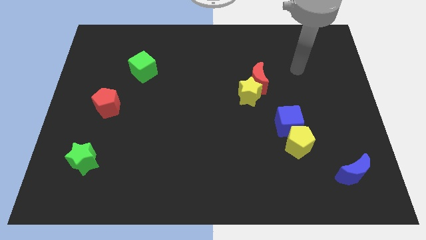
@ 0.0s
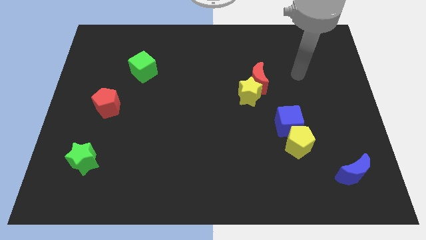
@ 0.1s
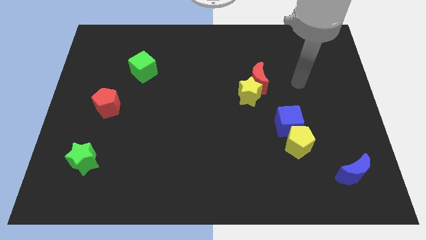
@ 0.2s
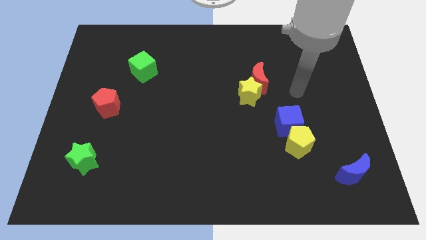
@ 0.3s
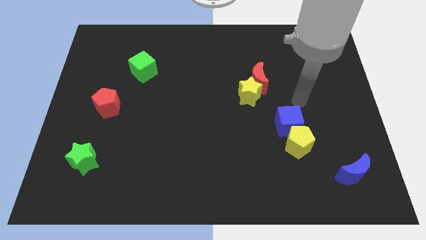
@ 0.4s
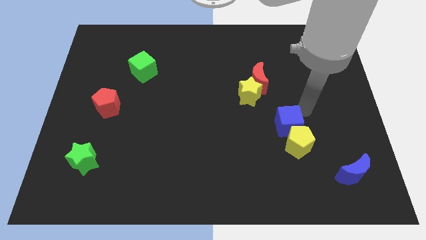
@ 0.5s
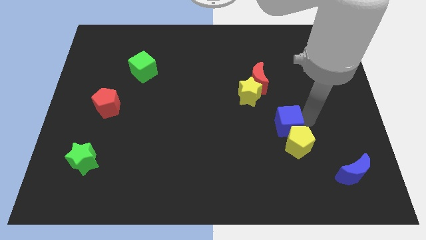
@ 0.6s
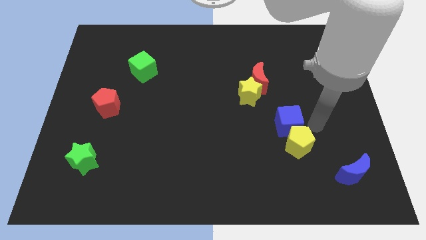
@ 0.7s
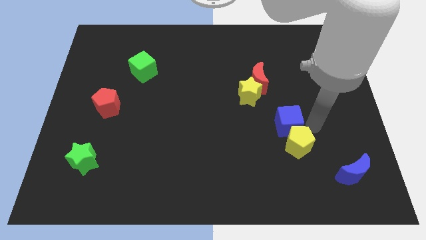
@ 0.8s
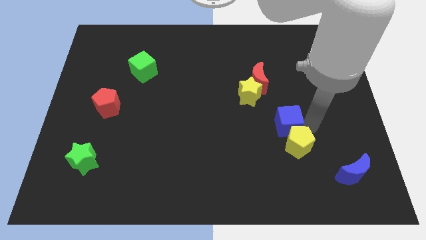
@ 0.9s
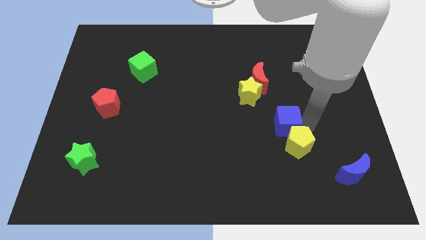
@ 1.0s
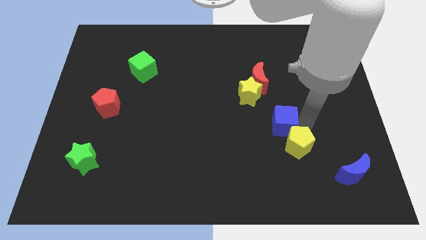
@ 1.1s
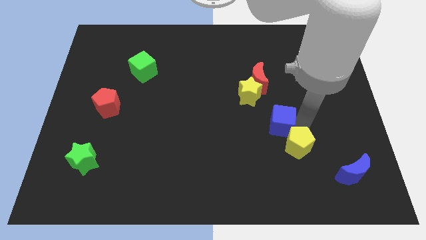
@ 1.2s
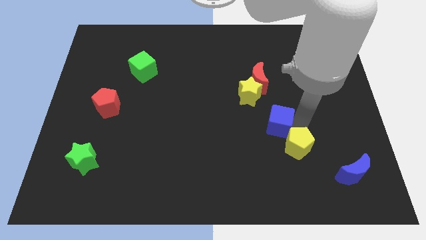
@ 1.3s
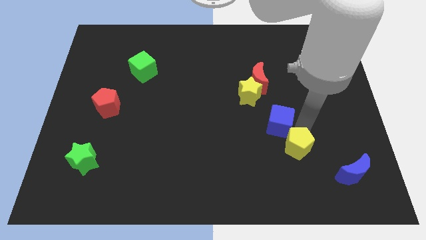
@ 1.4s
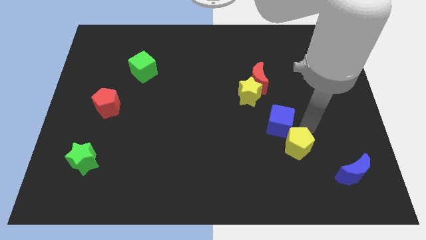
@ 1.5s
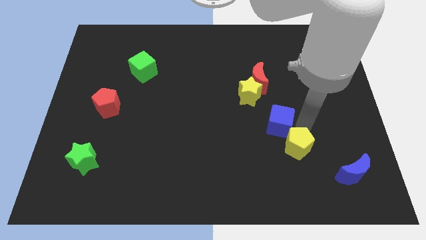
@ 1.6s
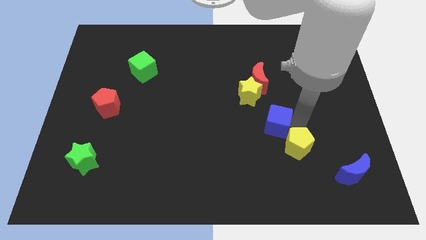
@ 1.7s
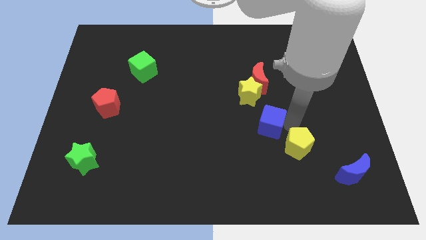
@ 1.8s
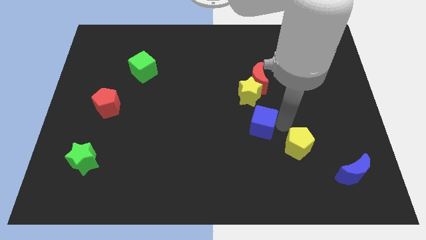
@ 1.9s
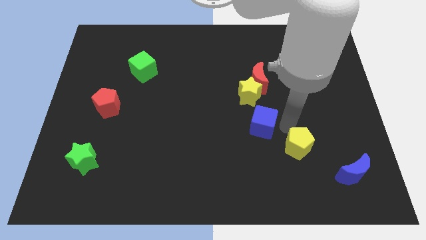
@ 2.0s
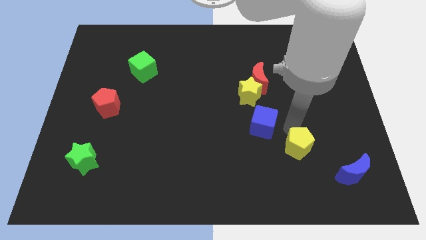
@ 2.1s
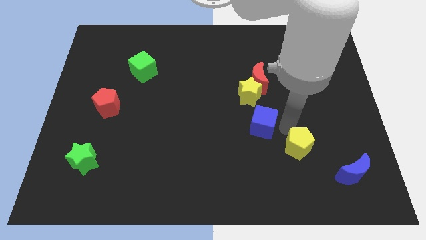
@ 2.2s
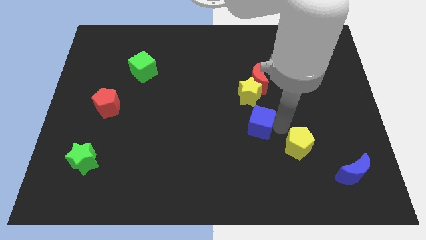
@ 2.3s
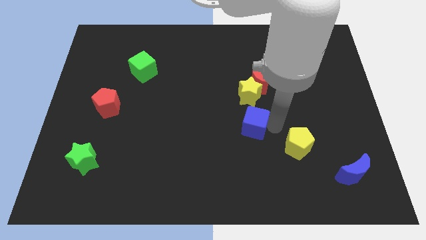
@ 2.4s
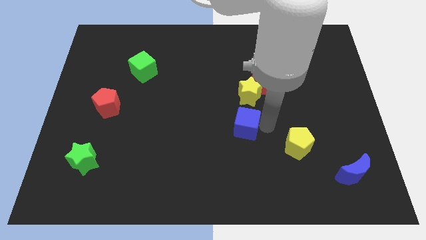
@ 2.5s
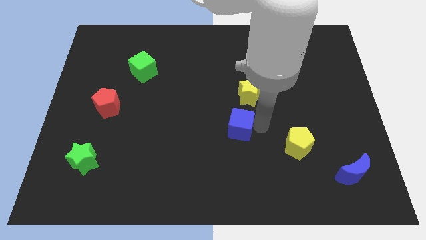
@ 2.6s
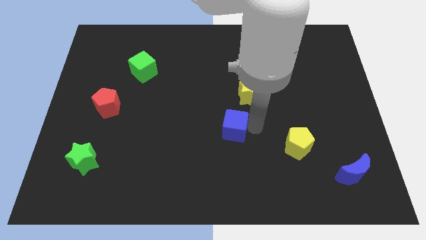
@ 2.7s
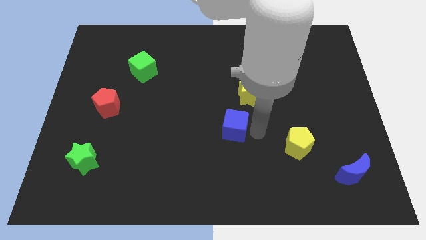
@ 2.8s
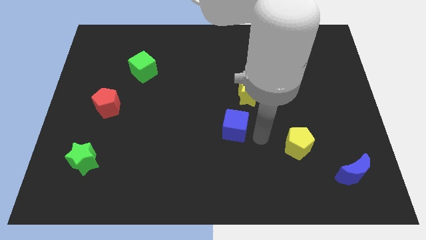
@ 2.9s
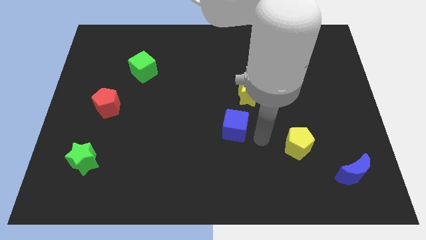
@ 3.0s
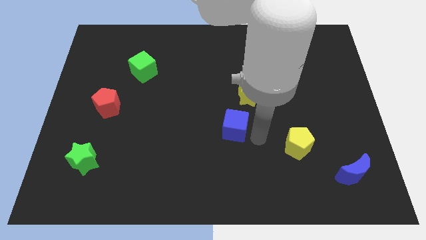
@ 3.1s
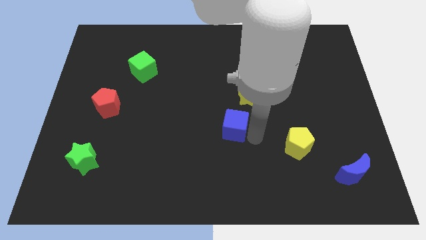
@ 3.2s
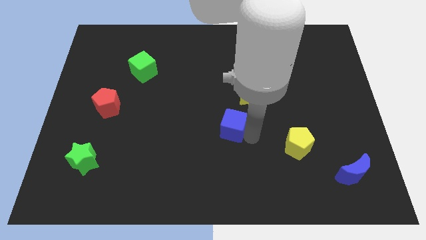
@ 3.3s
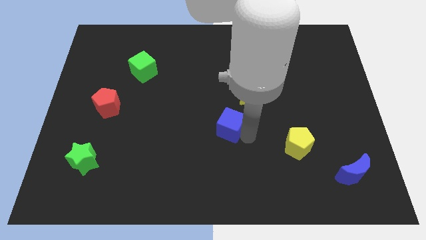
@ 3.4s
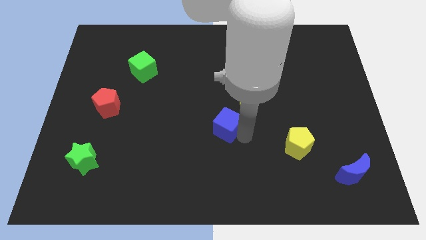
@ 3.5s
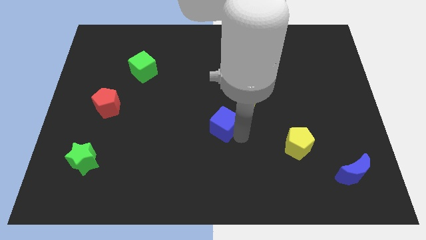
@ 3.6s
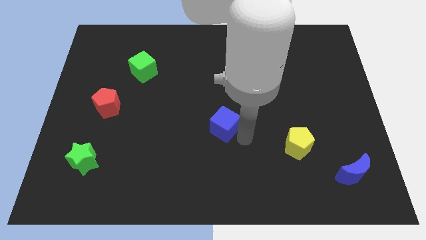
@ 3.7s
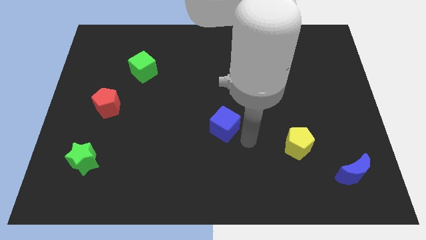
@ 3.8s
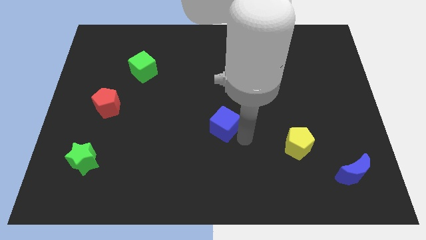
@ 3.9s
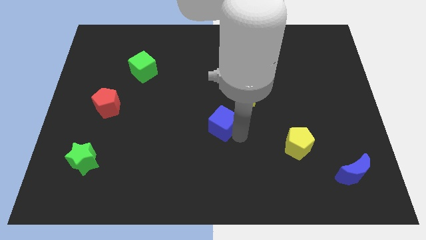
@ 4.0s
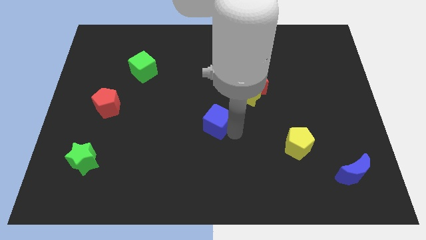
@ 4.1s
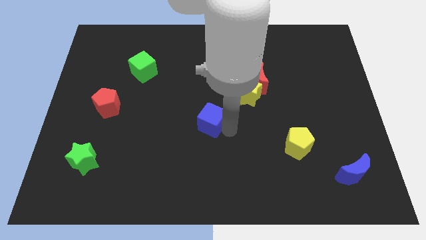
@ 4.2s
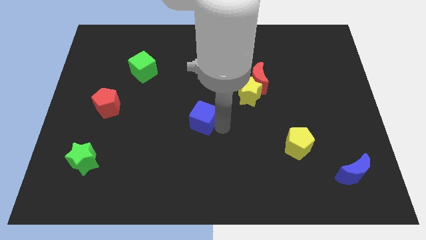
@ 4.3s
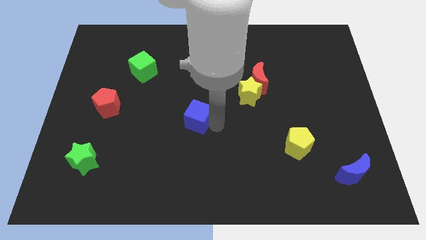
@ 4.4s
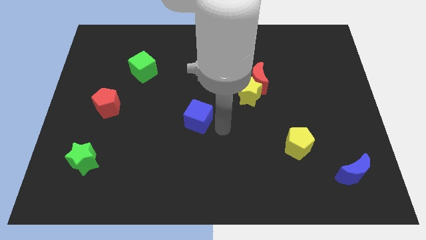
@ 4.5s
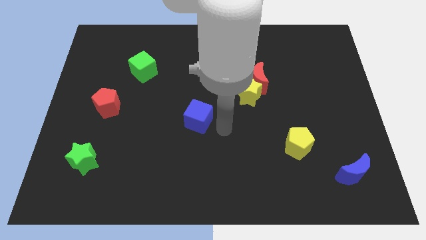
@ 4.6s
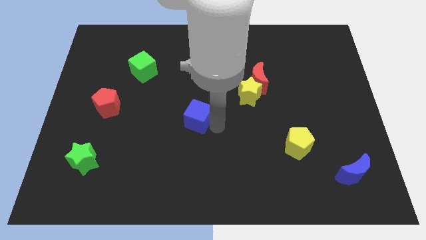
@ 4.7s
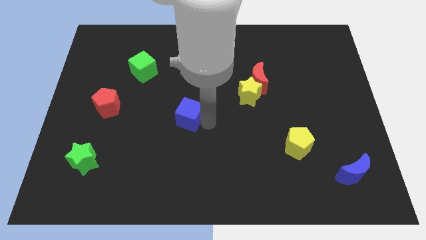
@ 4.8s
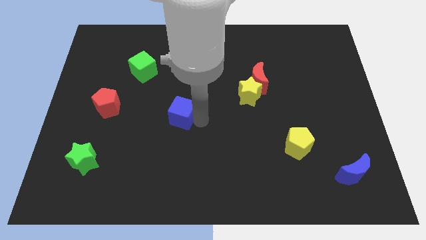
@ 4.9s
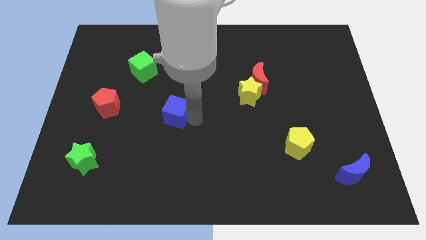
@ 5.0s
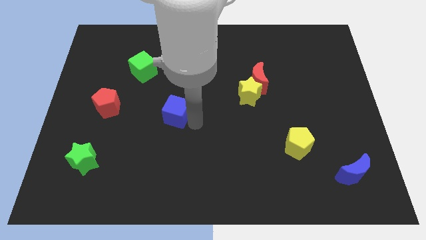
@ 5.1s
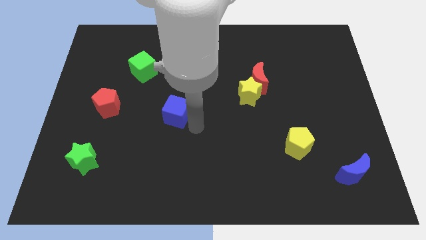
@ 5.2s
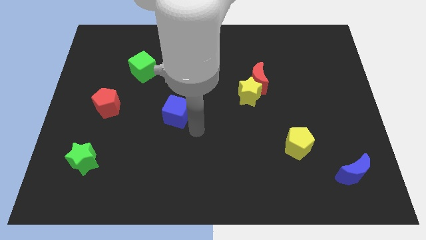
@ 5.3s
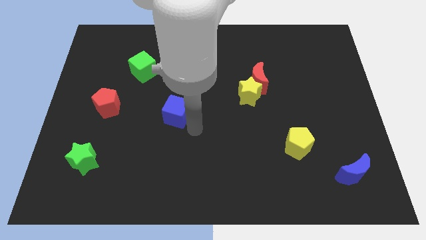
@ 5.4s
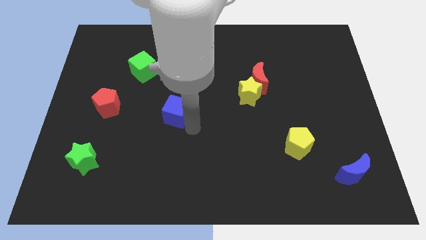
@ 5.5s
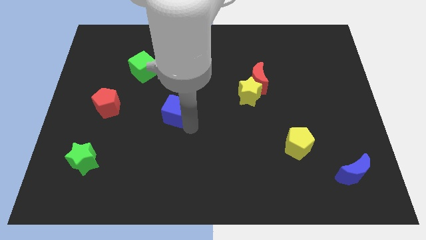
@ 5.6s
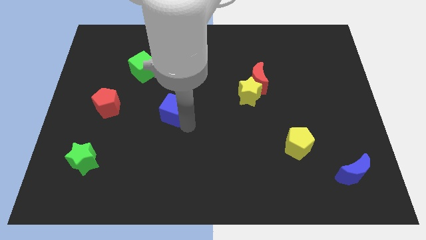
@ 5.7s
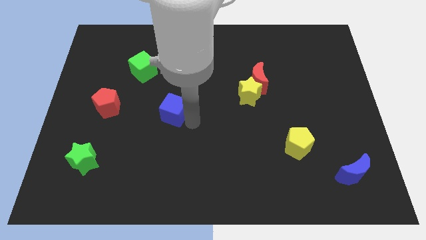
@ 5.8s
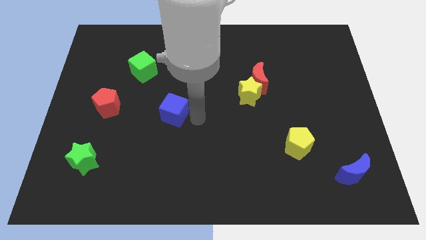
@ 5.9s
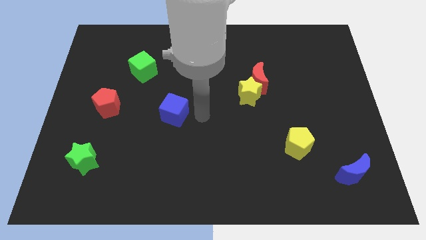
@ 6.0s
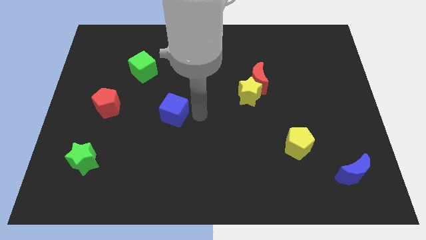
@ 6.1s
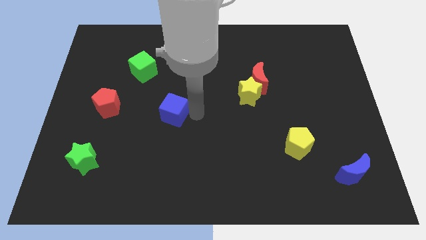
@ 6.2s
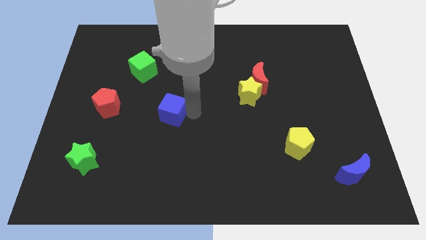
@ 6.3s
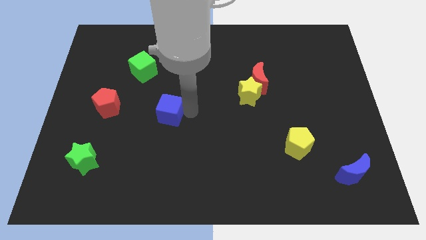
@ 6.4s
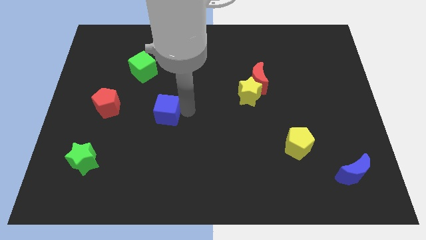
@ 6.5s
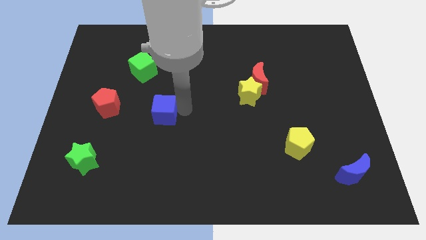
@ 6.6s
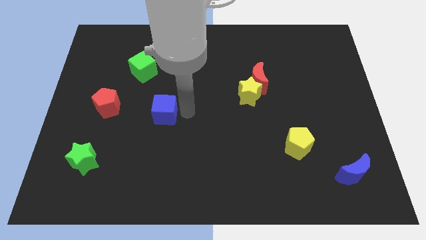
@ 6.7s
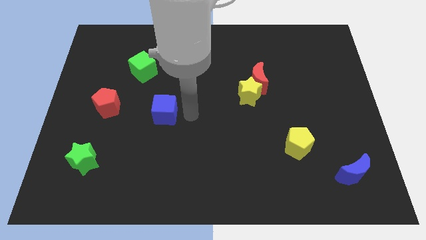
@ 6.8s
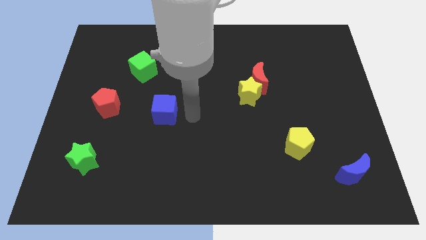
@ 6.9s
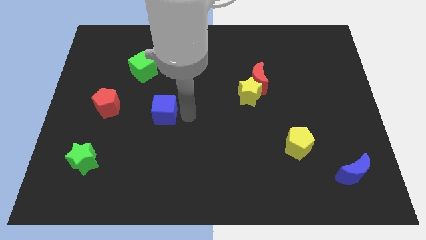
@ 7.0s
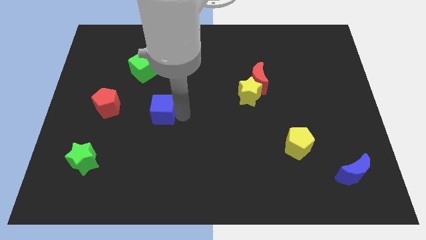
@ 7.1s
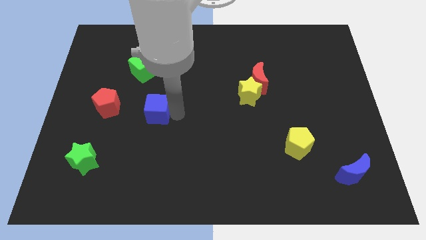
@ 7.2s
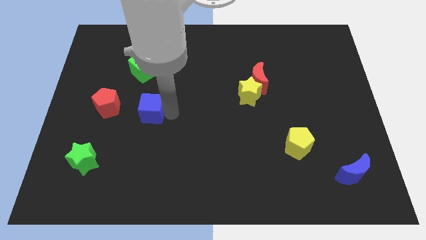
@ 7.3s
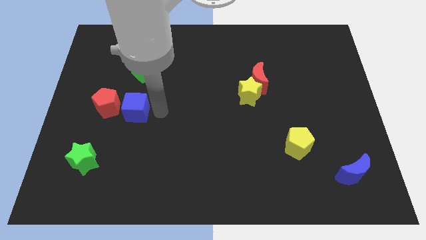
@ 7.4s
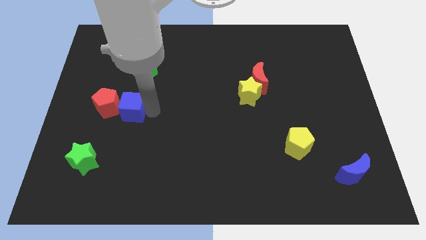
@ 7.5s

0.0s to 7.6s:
put the blue cube towards the red pentagon
